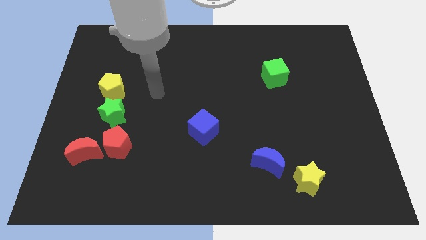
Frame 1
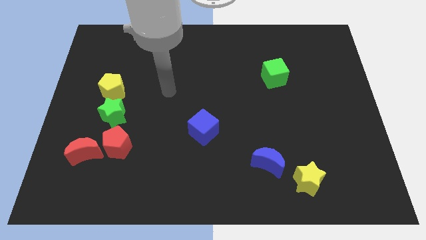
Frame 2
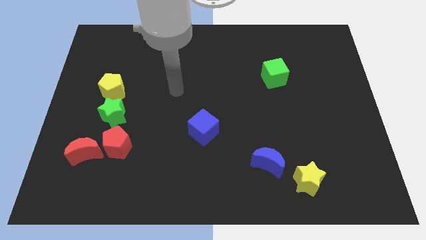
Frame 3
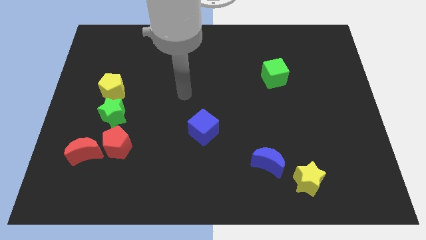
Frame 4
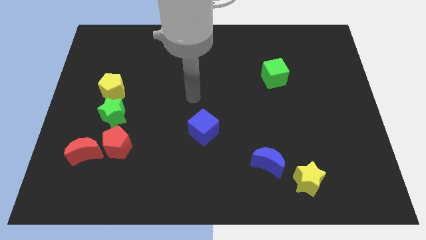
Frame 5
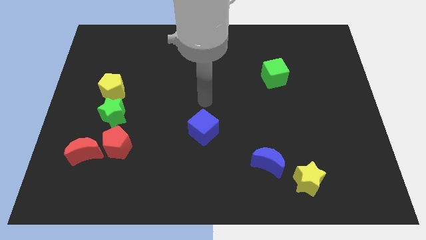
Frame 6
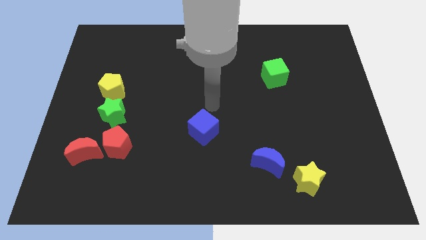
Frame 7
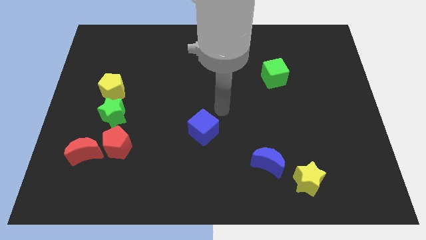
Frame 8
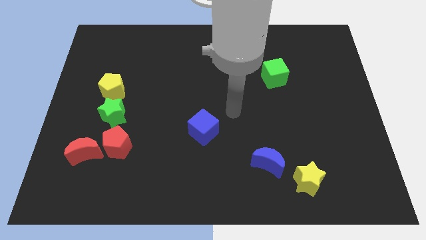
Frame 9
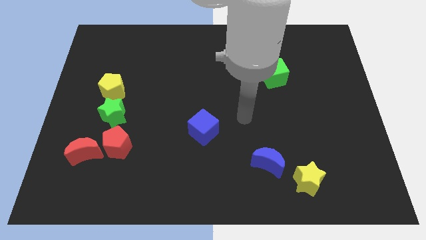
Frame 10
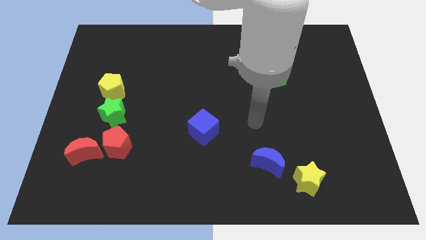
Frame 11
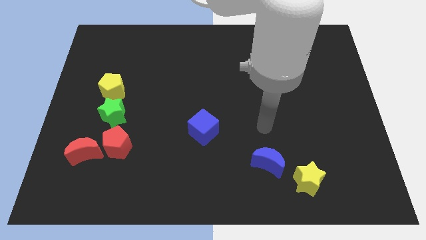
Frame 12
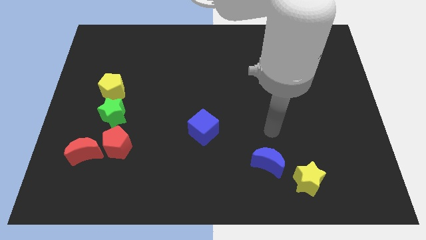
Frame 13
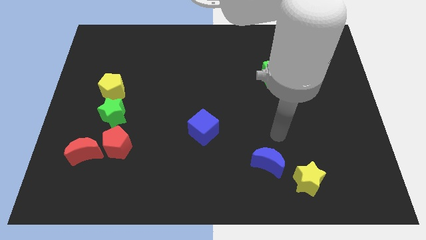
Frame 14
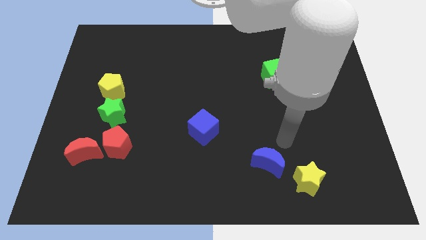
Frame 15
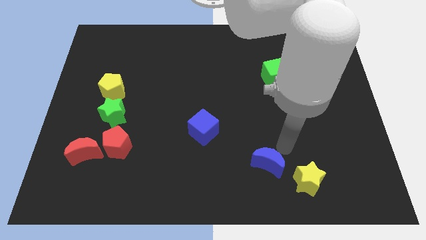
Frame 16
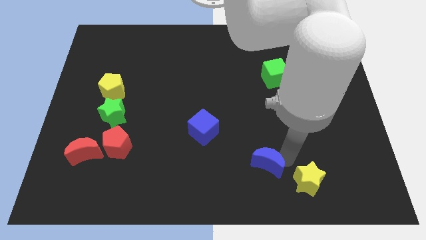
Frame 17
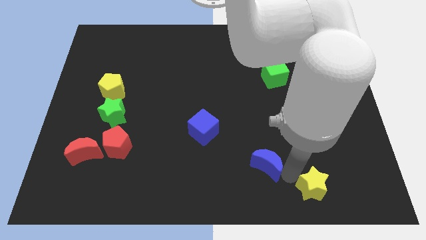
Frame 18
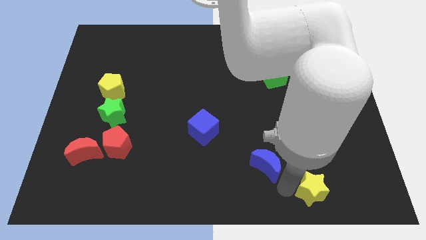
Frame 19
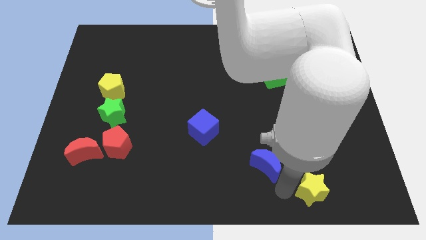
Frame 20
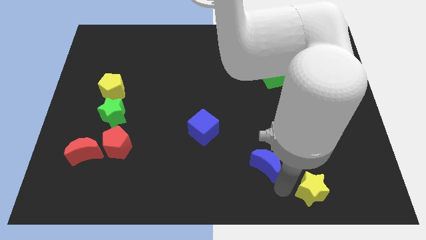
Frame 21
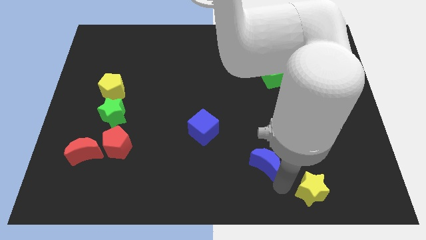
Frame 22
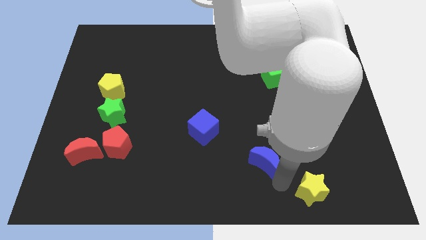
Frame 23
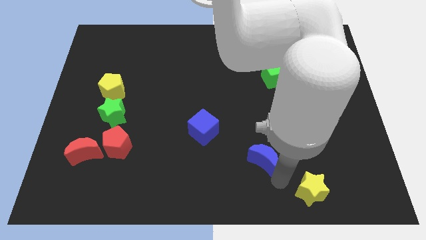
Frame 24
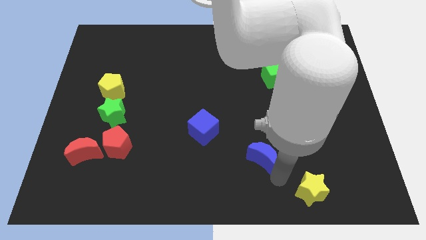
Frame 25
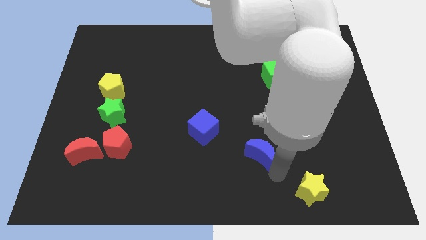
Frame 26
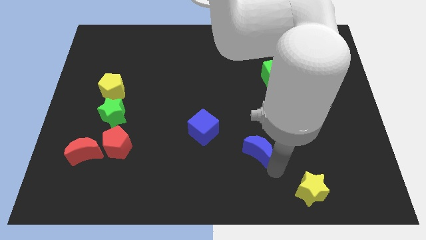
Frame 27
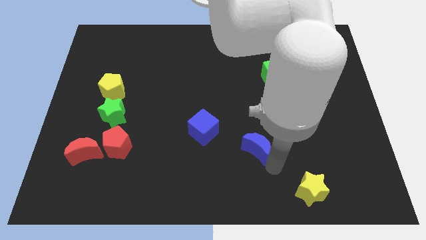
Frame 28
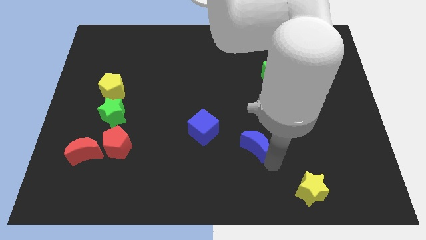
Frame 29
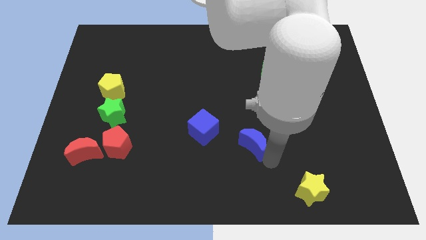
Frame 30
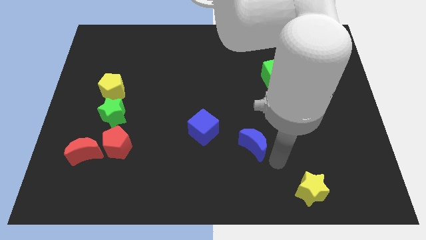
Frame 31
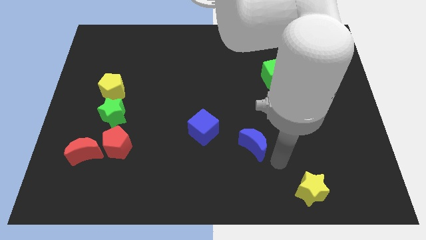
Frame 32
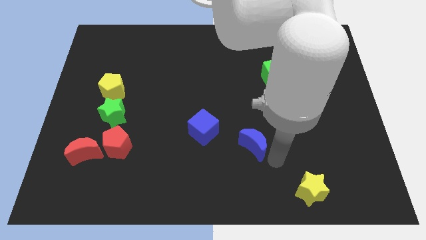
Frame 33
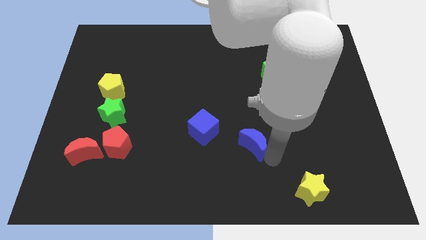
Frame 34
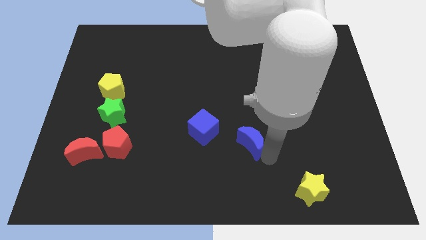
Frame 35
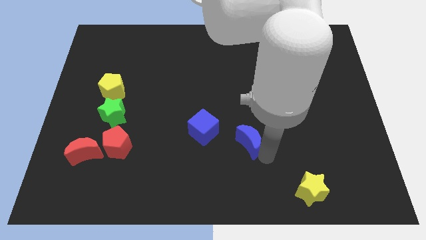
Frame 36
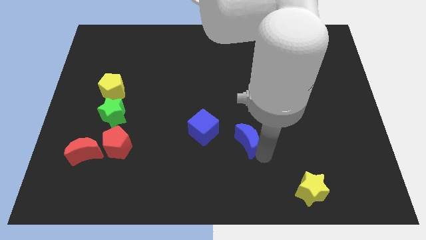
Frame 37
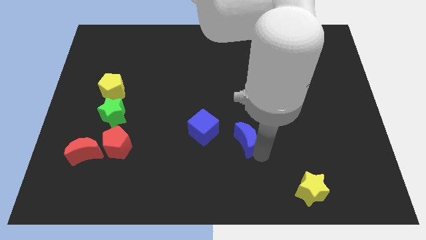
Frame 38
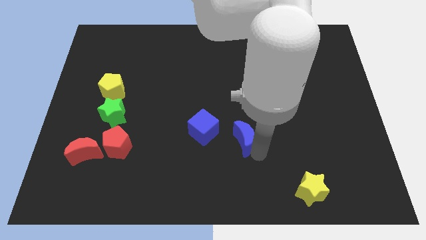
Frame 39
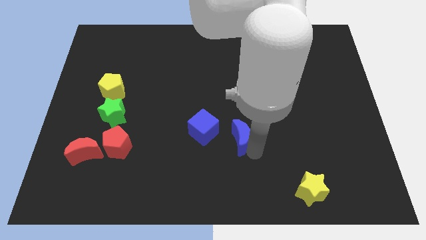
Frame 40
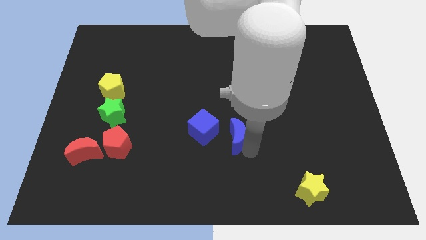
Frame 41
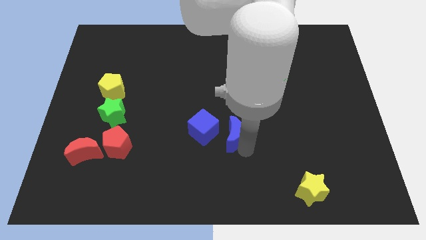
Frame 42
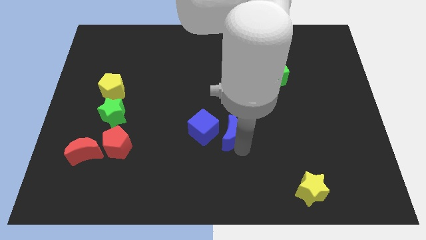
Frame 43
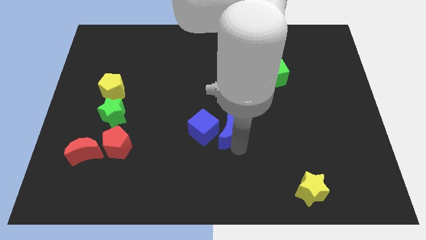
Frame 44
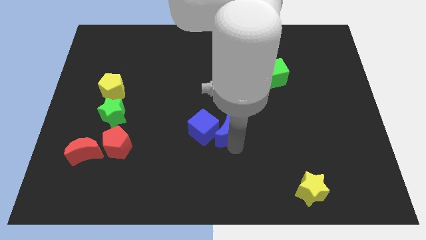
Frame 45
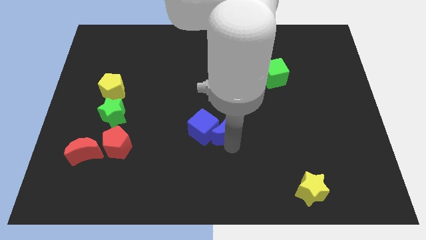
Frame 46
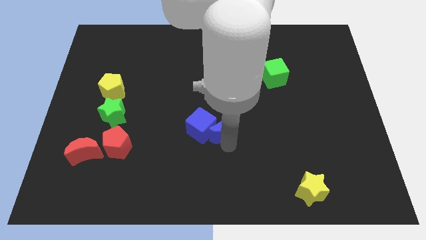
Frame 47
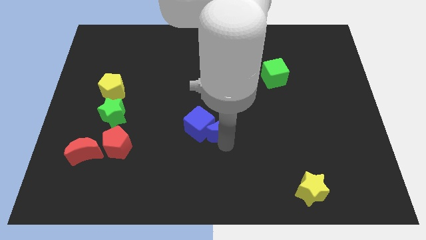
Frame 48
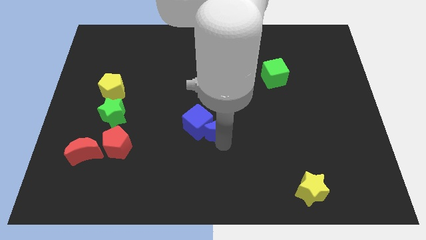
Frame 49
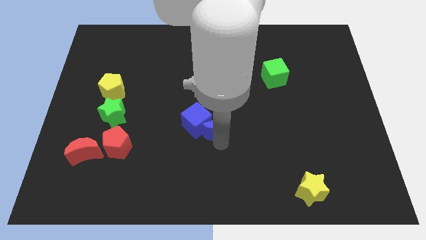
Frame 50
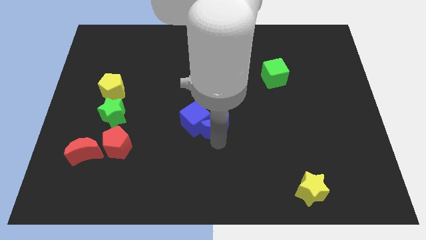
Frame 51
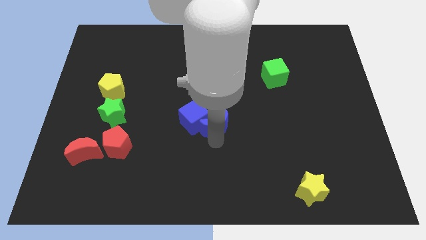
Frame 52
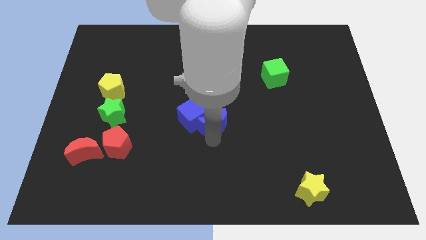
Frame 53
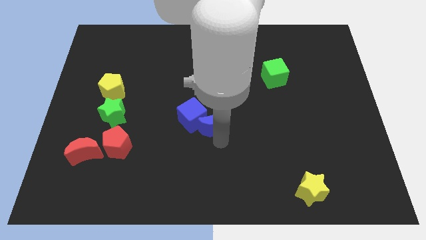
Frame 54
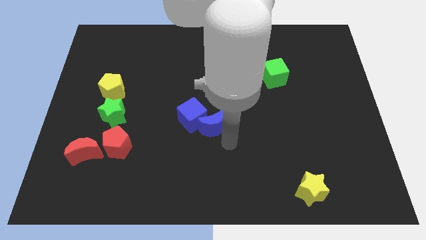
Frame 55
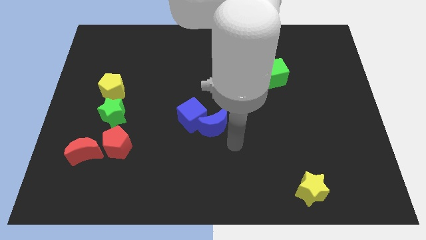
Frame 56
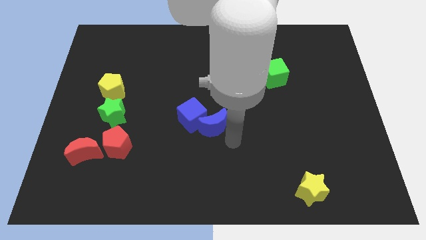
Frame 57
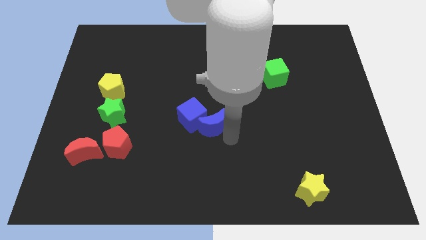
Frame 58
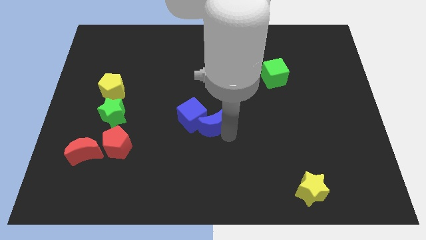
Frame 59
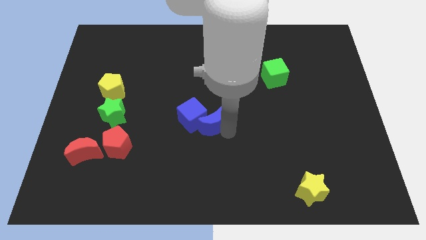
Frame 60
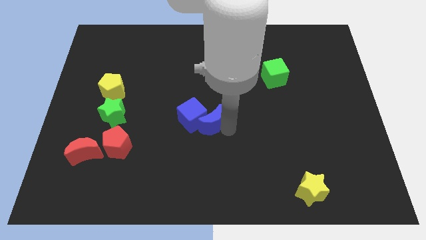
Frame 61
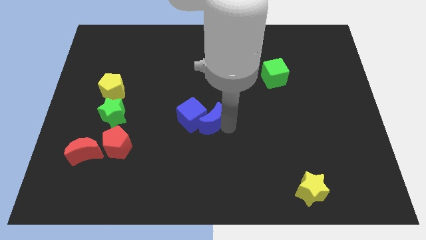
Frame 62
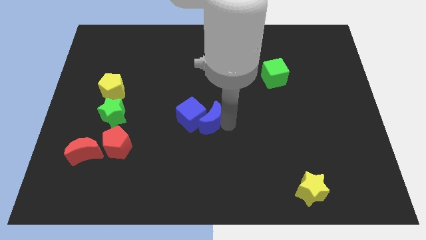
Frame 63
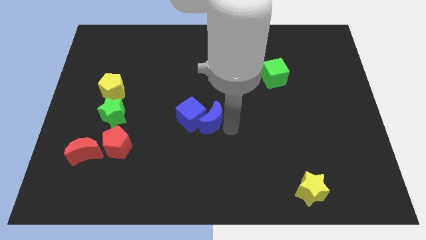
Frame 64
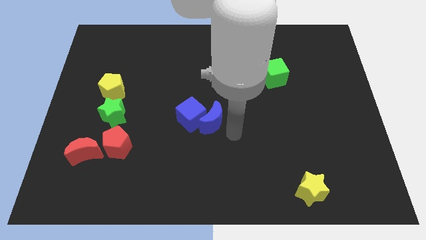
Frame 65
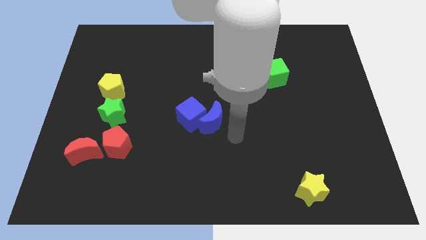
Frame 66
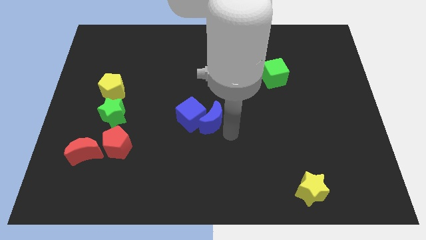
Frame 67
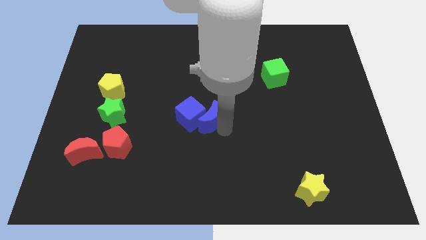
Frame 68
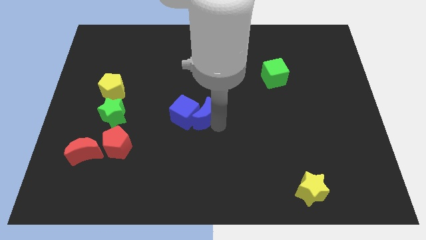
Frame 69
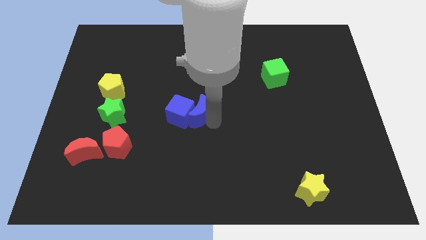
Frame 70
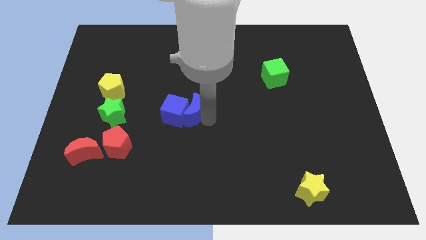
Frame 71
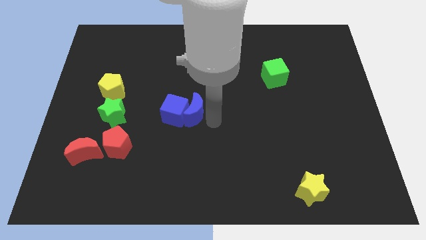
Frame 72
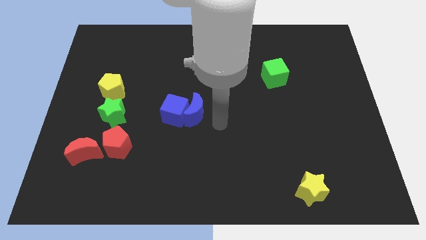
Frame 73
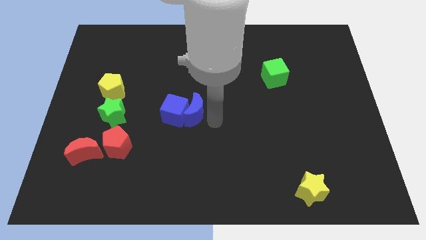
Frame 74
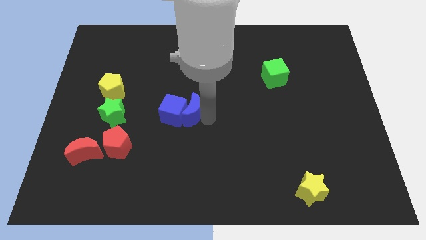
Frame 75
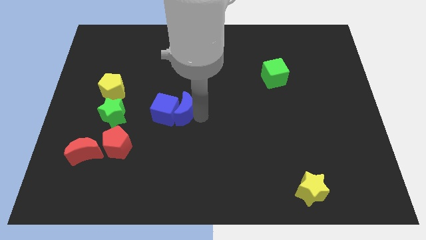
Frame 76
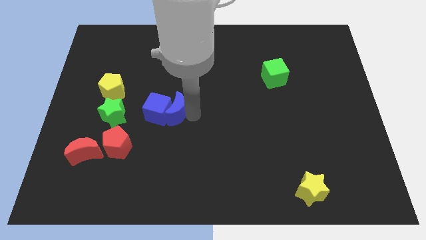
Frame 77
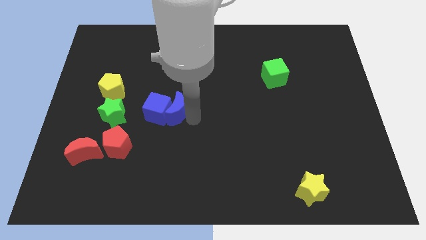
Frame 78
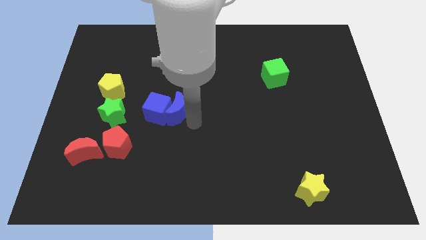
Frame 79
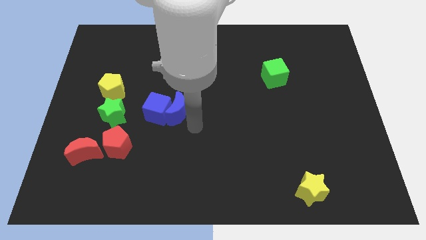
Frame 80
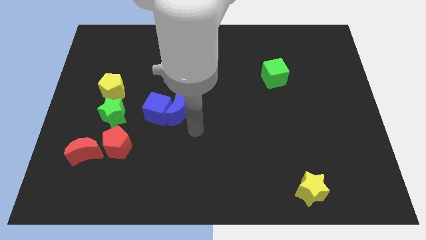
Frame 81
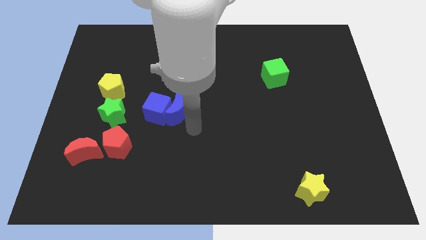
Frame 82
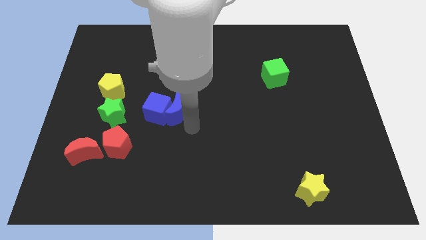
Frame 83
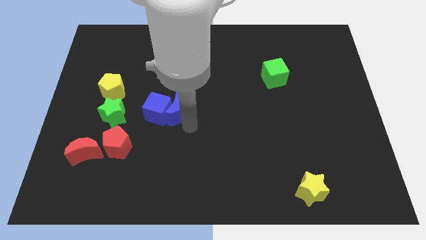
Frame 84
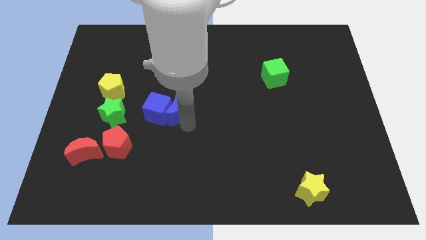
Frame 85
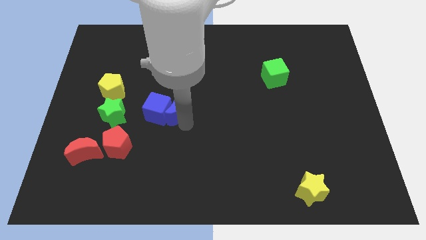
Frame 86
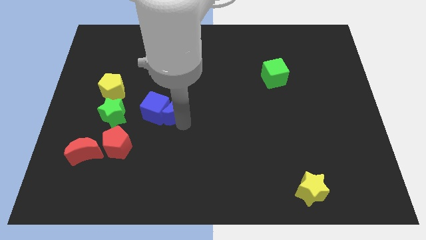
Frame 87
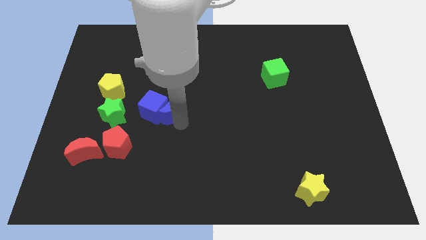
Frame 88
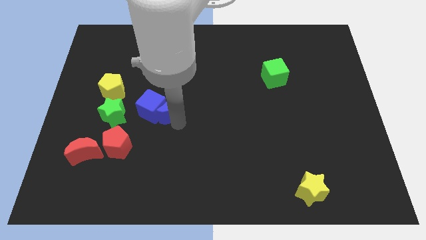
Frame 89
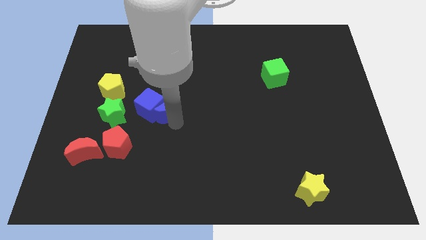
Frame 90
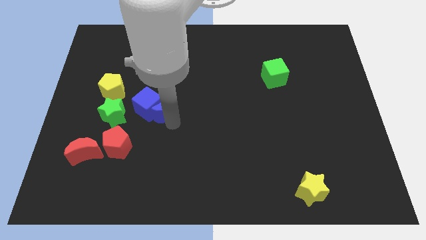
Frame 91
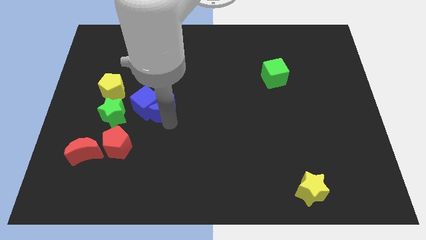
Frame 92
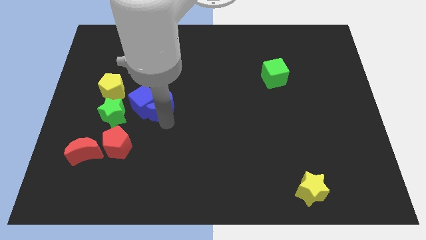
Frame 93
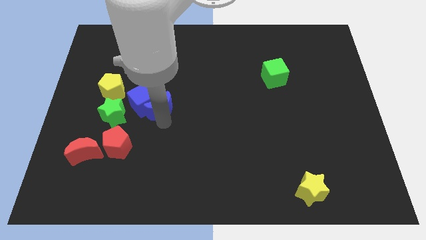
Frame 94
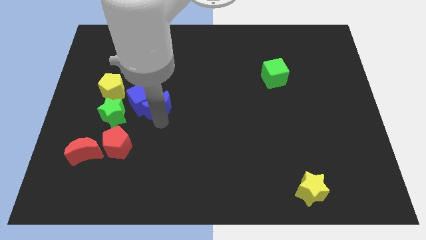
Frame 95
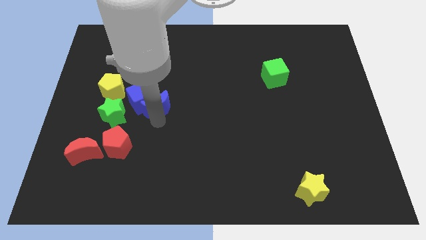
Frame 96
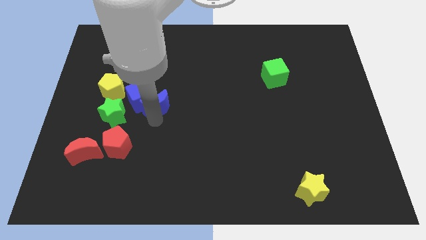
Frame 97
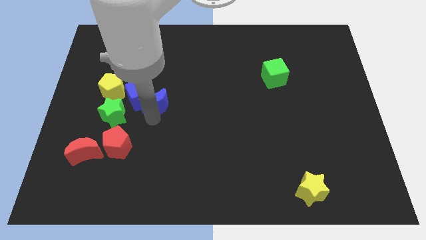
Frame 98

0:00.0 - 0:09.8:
push the blue moon to the right side of the yellow pentagon
